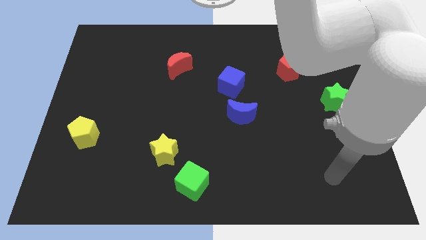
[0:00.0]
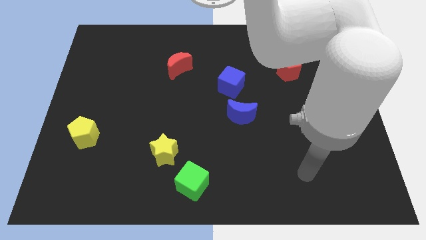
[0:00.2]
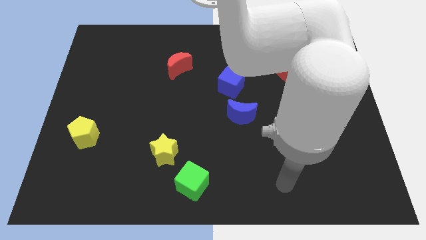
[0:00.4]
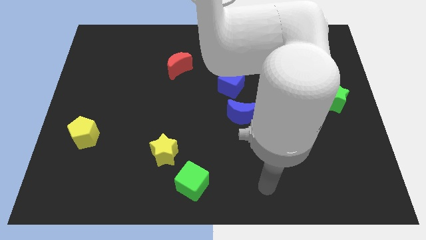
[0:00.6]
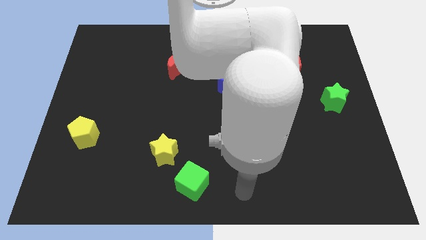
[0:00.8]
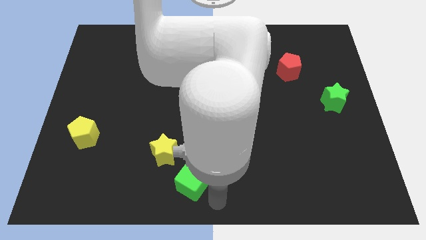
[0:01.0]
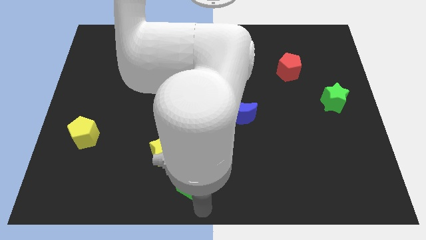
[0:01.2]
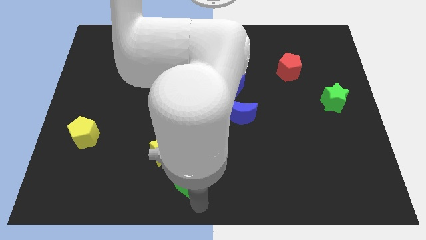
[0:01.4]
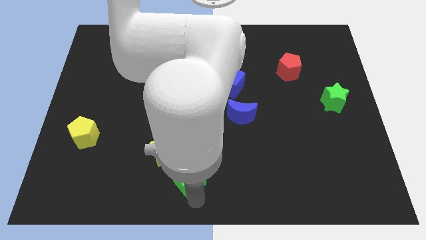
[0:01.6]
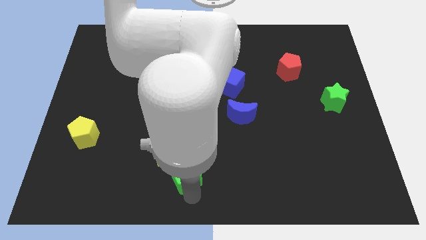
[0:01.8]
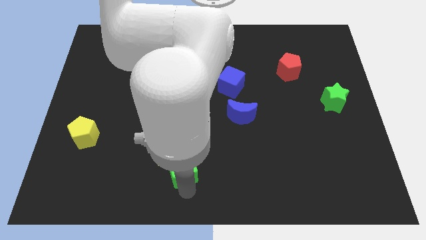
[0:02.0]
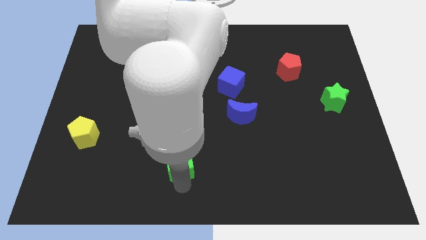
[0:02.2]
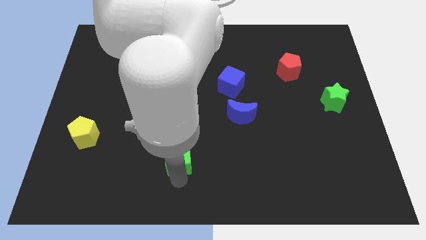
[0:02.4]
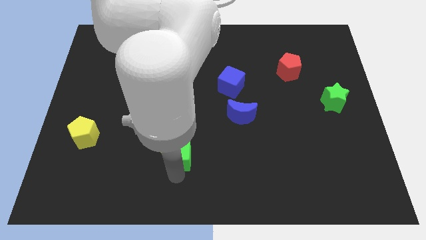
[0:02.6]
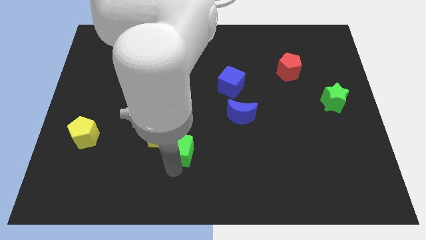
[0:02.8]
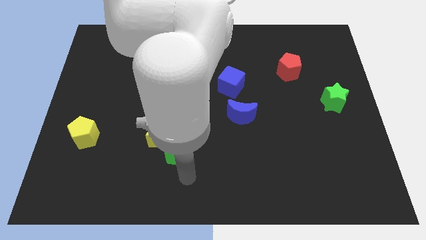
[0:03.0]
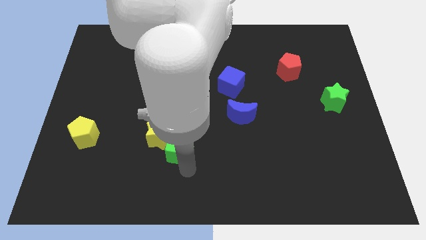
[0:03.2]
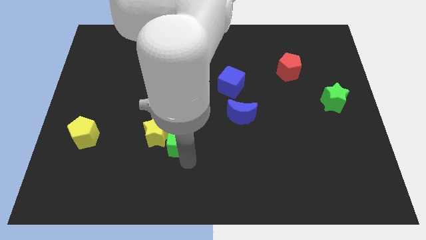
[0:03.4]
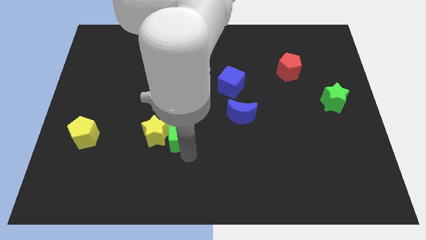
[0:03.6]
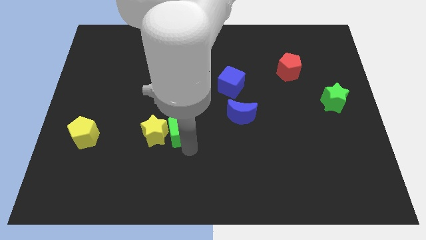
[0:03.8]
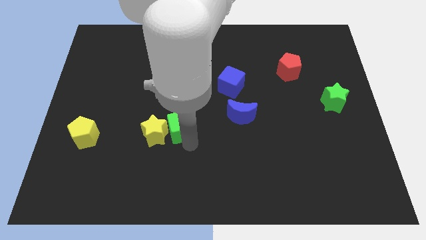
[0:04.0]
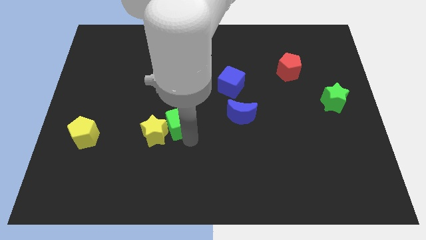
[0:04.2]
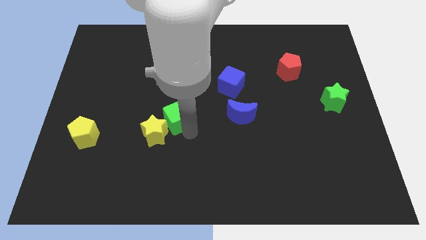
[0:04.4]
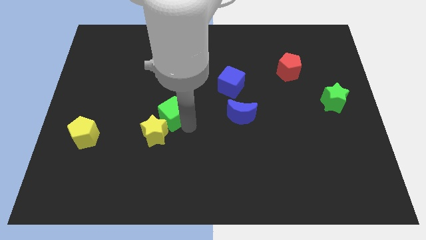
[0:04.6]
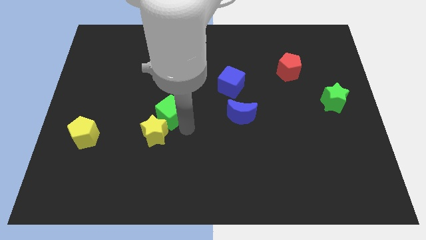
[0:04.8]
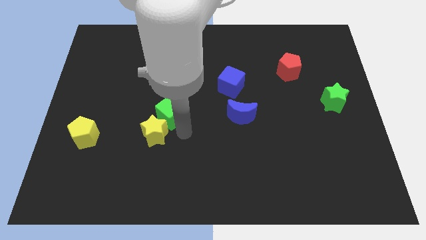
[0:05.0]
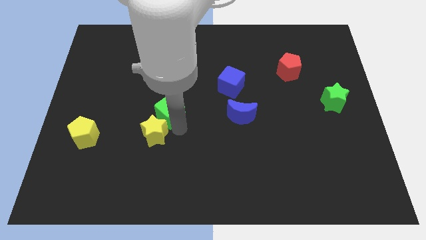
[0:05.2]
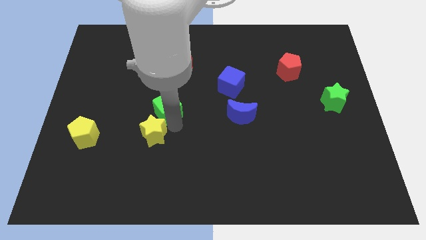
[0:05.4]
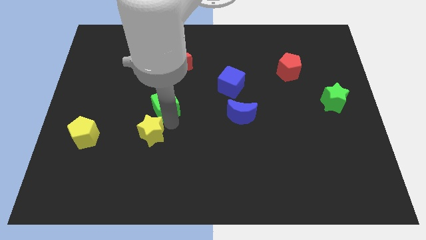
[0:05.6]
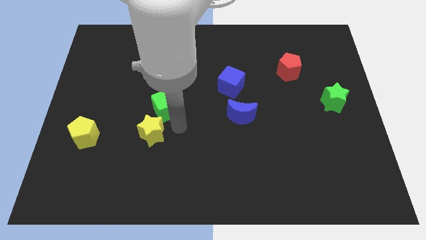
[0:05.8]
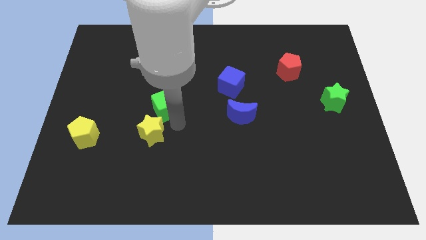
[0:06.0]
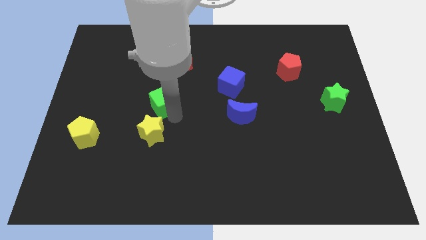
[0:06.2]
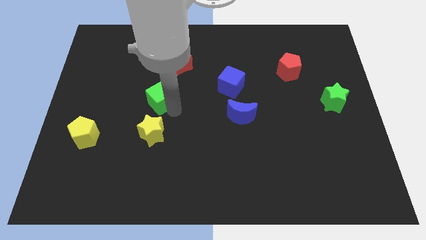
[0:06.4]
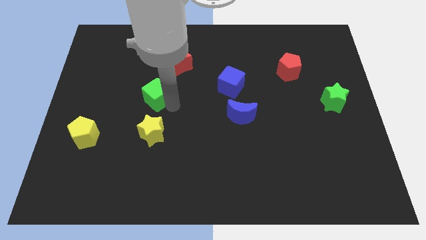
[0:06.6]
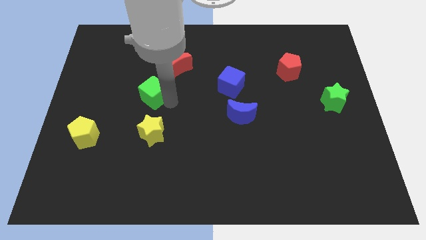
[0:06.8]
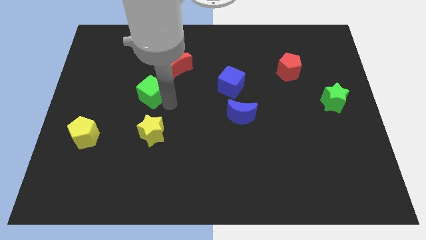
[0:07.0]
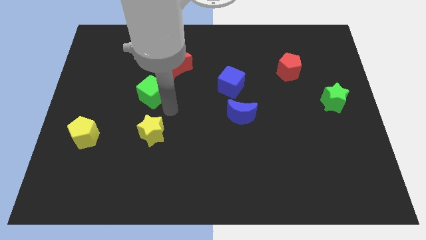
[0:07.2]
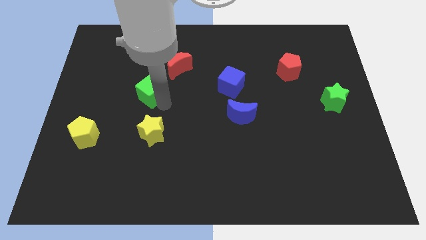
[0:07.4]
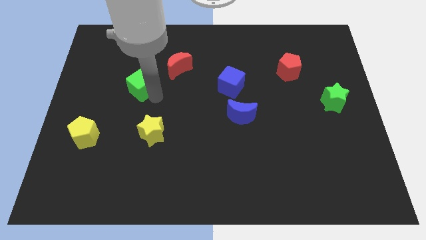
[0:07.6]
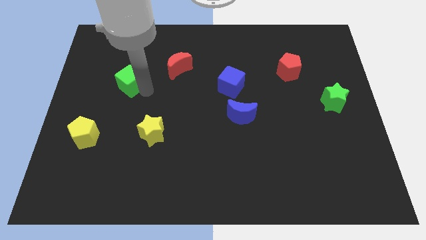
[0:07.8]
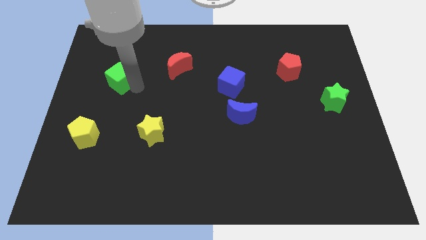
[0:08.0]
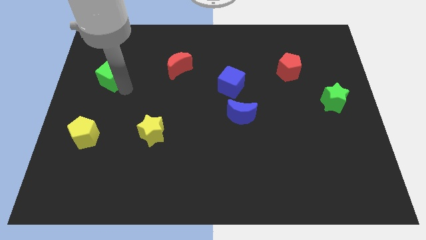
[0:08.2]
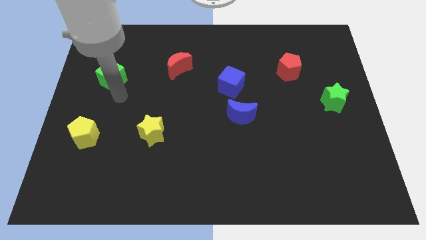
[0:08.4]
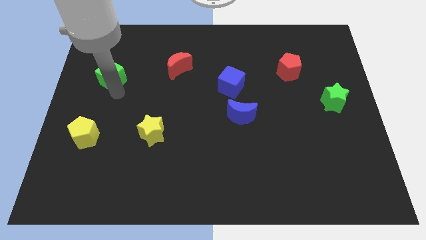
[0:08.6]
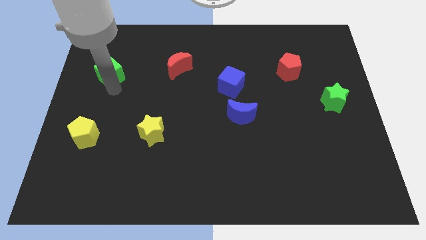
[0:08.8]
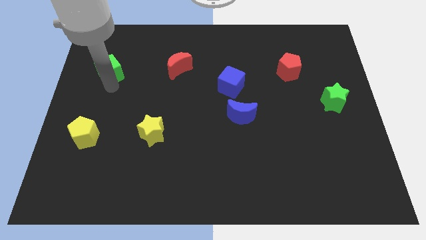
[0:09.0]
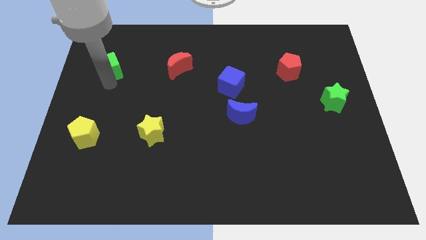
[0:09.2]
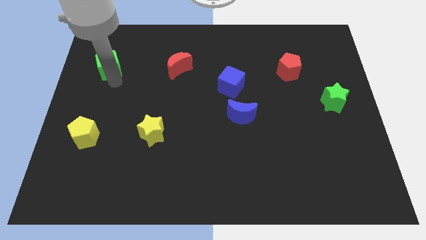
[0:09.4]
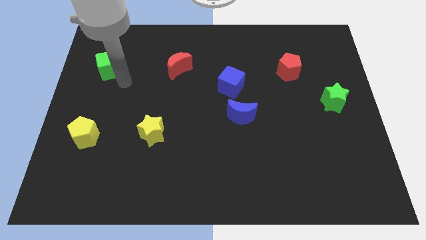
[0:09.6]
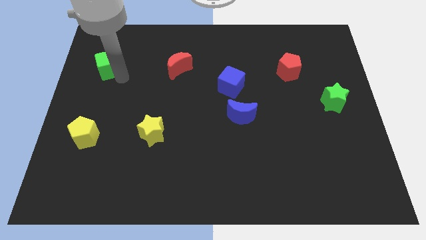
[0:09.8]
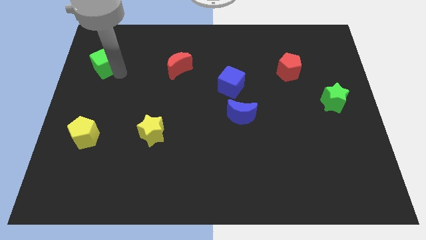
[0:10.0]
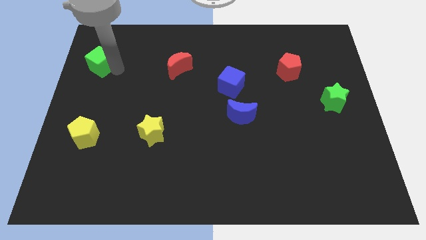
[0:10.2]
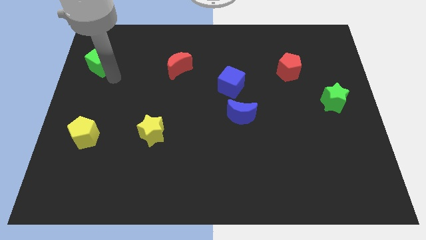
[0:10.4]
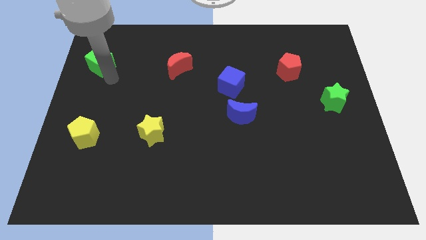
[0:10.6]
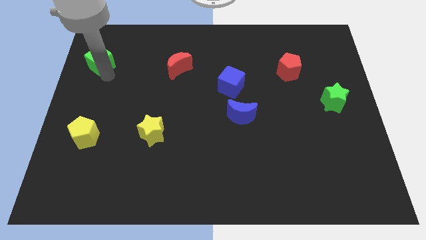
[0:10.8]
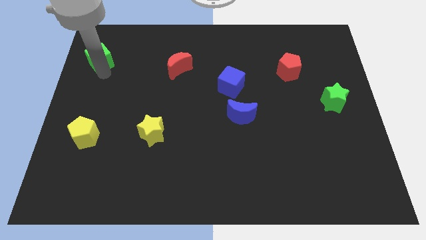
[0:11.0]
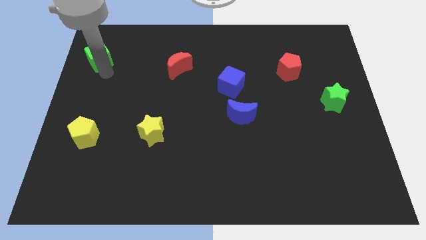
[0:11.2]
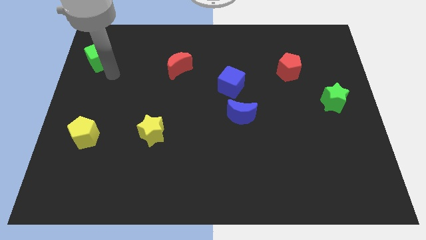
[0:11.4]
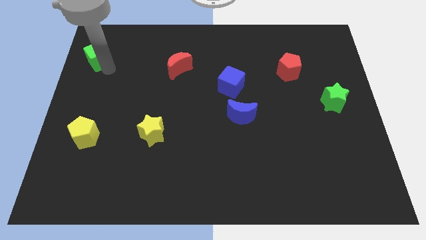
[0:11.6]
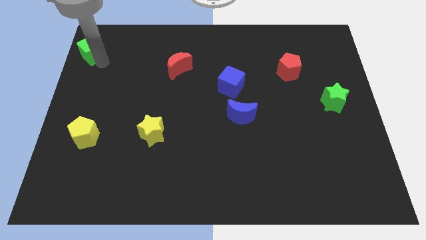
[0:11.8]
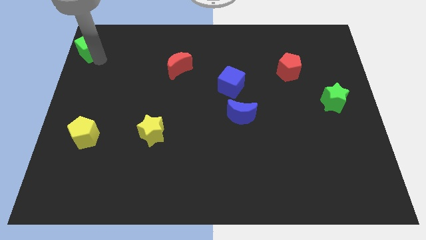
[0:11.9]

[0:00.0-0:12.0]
slide the green cube to the top left

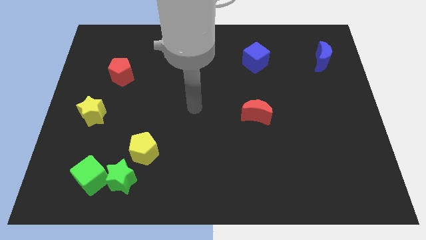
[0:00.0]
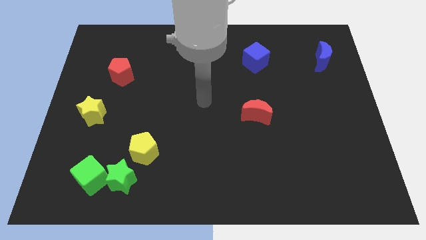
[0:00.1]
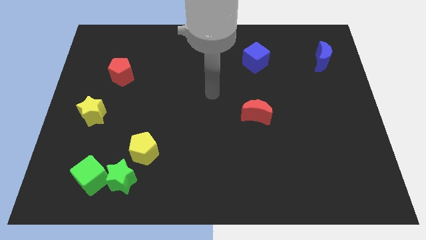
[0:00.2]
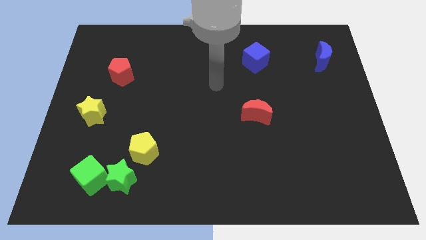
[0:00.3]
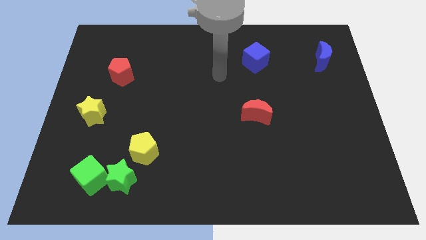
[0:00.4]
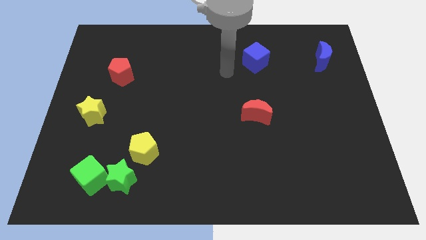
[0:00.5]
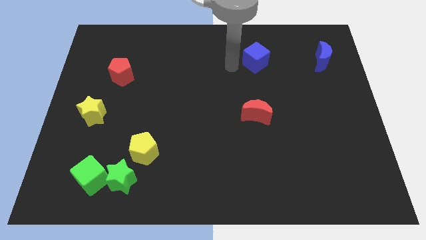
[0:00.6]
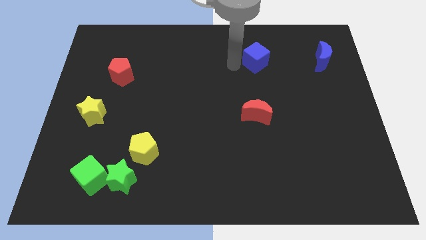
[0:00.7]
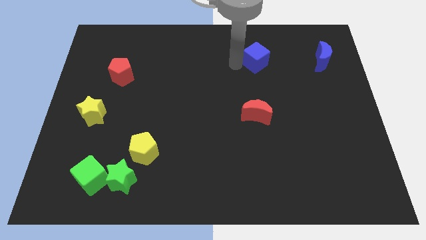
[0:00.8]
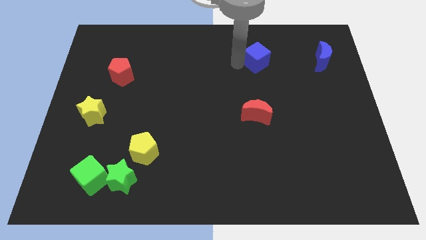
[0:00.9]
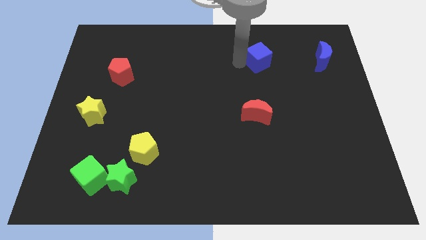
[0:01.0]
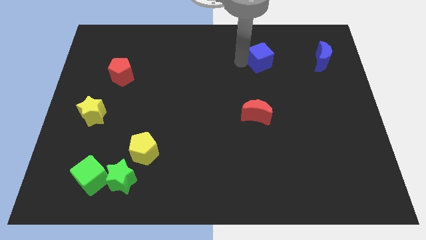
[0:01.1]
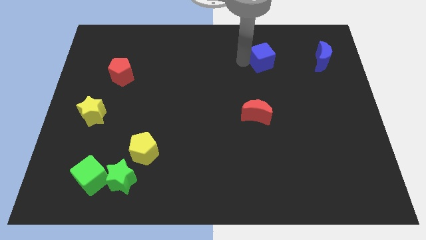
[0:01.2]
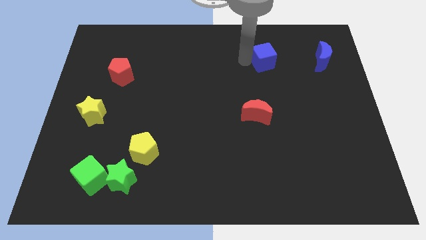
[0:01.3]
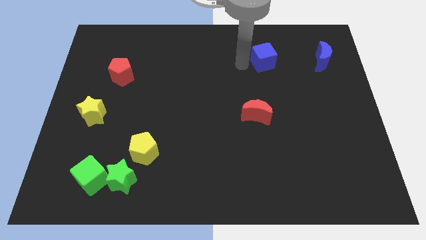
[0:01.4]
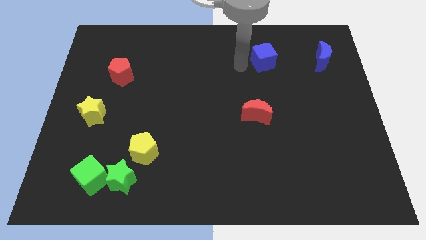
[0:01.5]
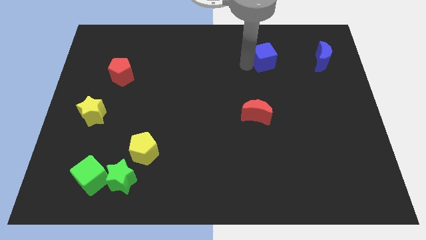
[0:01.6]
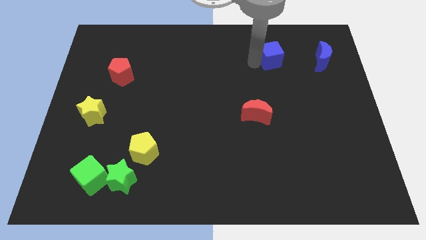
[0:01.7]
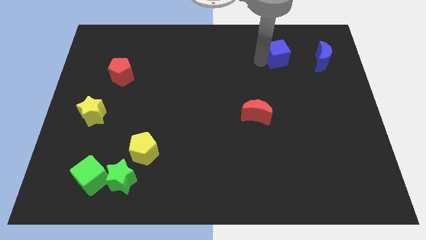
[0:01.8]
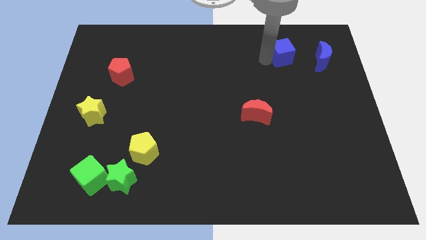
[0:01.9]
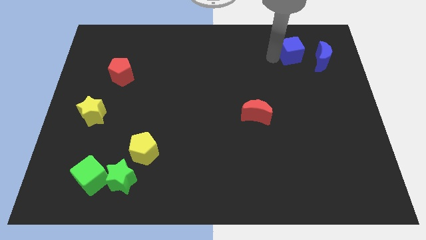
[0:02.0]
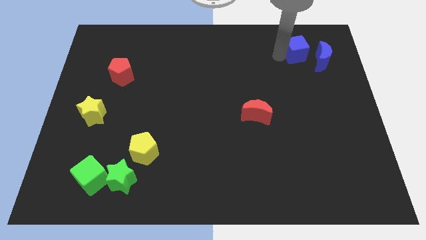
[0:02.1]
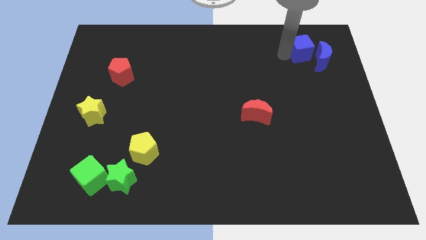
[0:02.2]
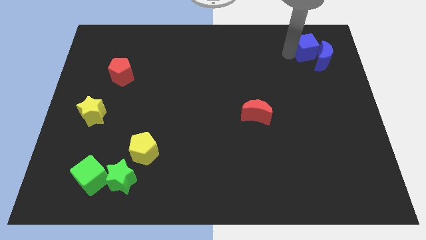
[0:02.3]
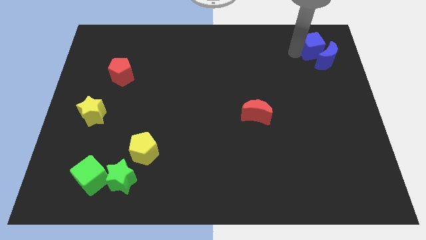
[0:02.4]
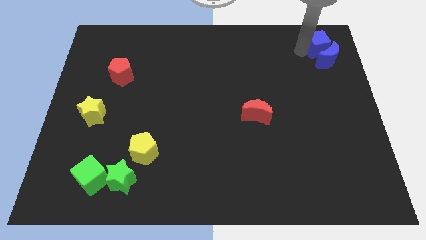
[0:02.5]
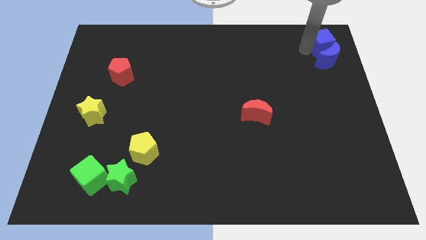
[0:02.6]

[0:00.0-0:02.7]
push the blue cube to the upper right corner
